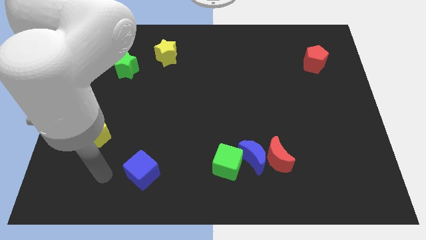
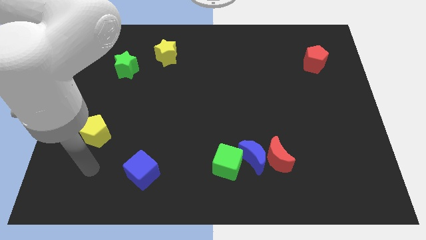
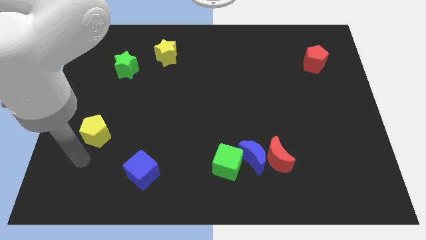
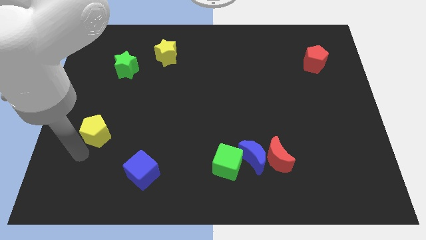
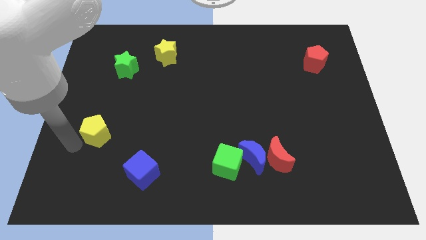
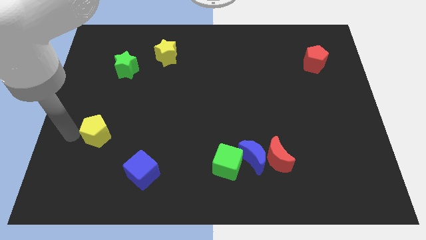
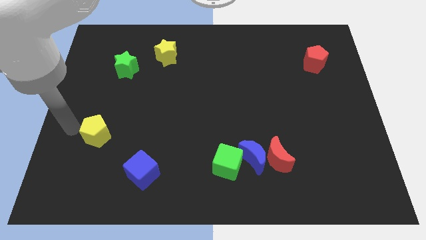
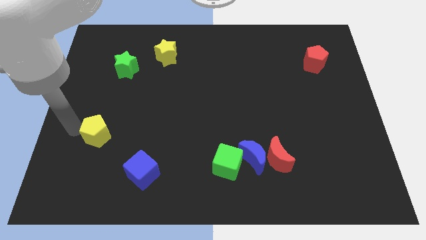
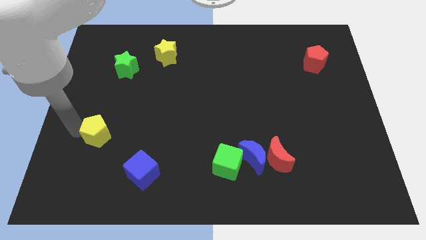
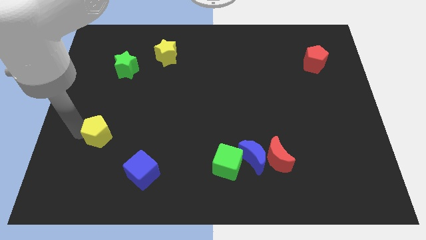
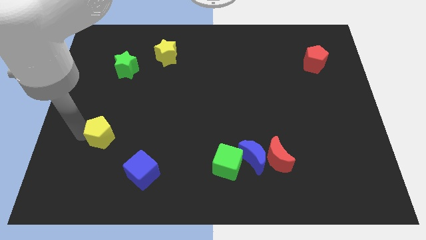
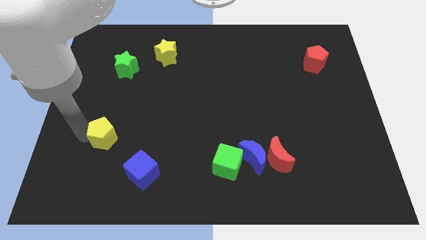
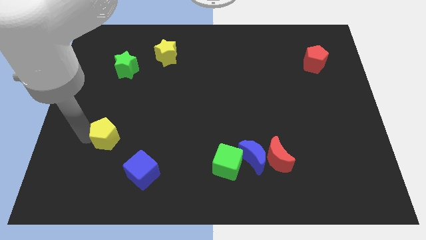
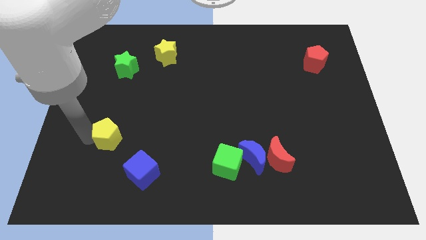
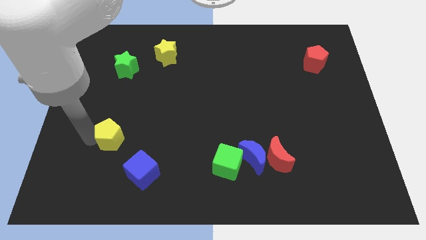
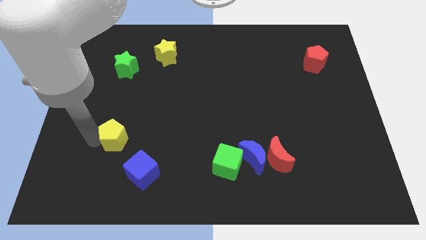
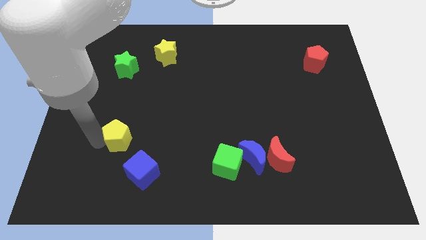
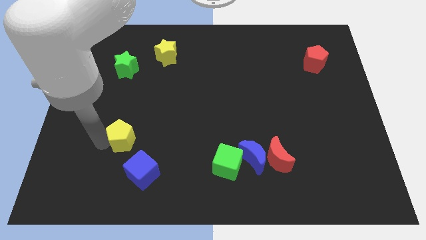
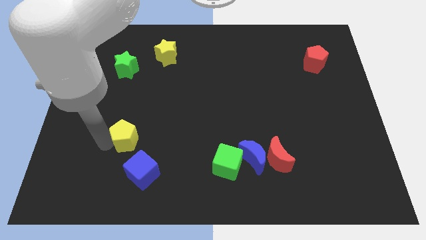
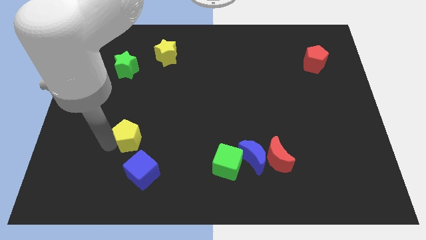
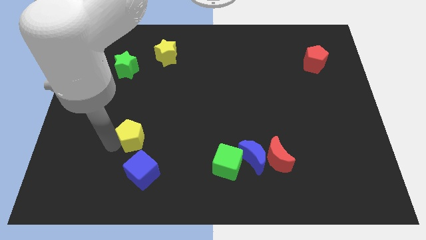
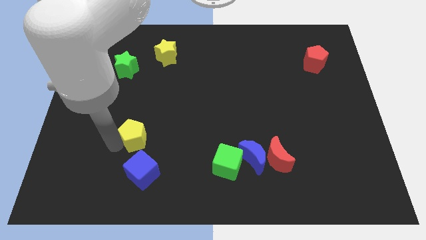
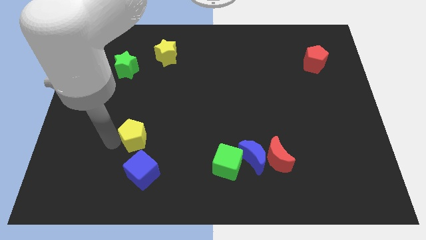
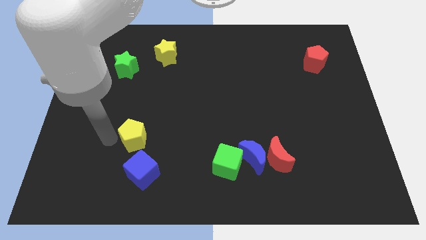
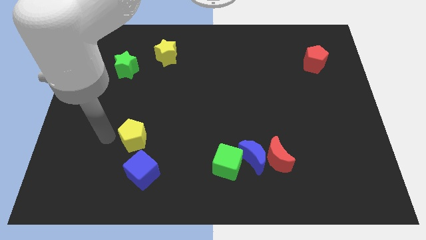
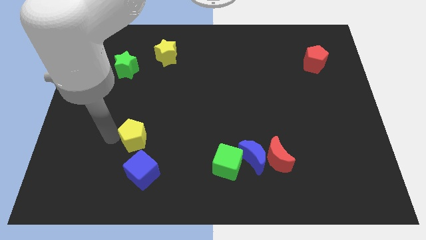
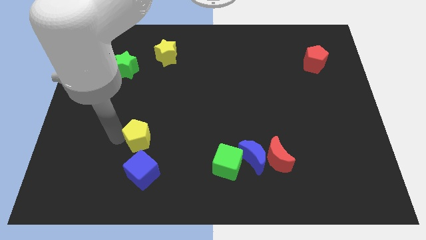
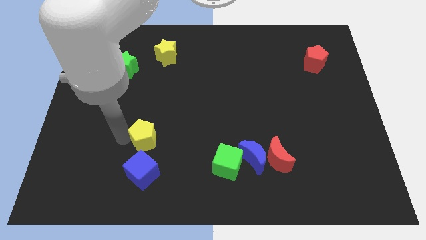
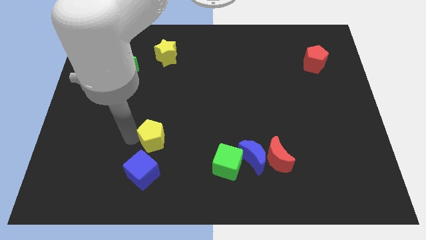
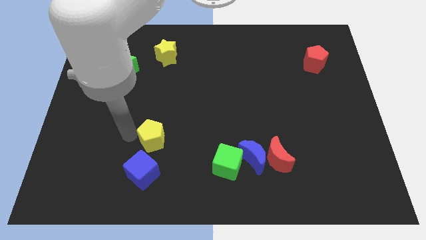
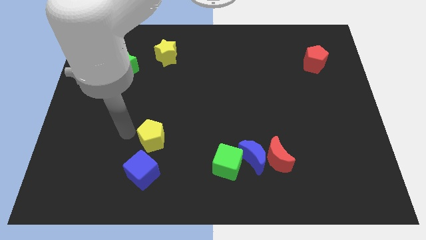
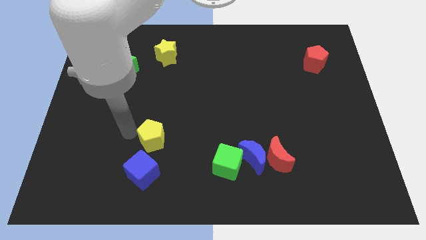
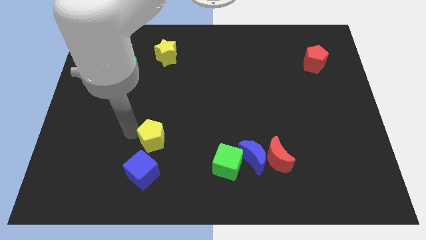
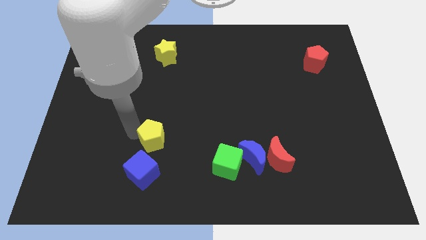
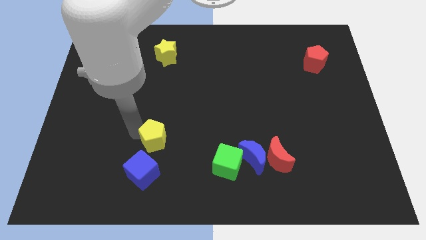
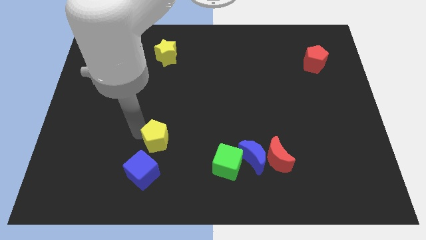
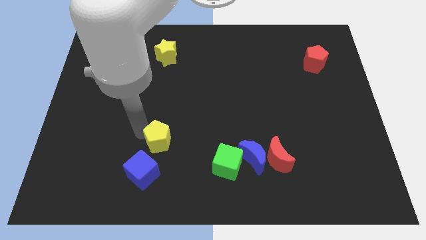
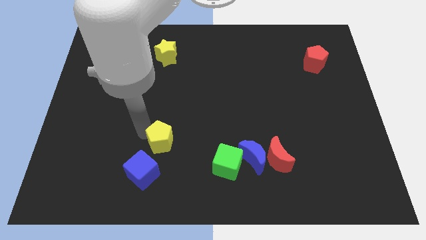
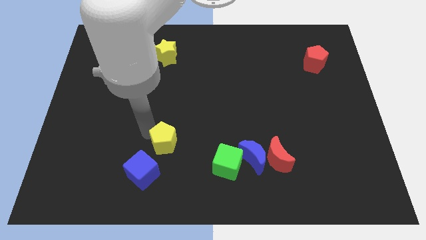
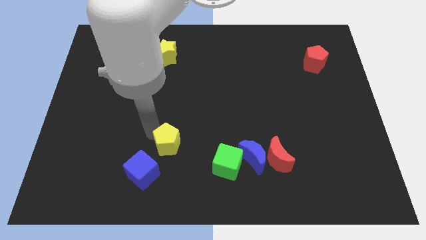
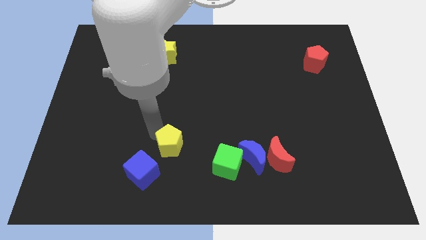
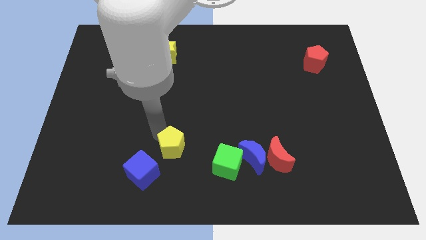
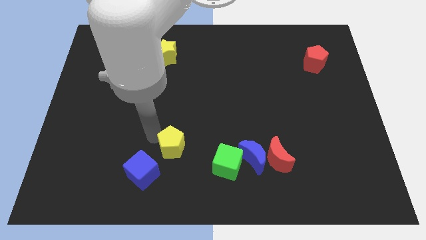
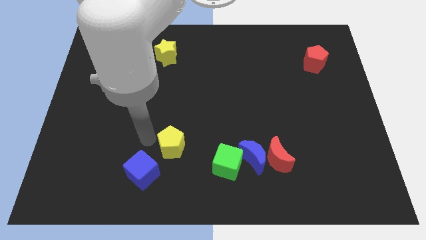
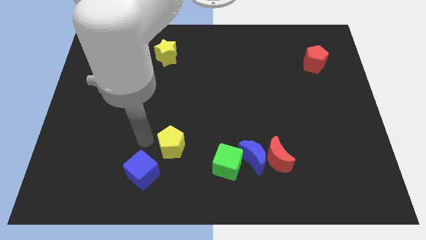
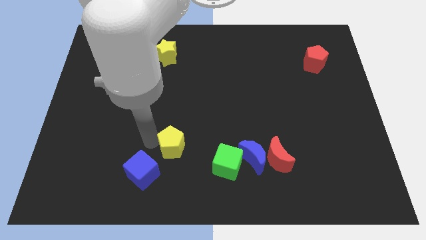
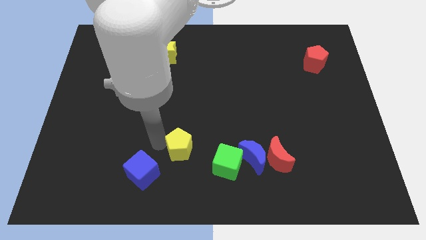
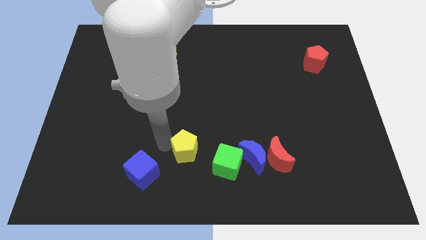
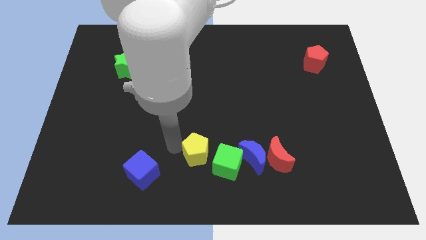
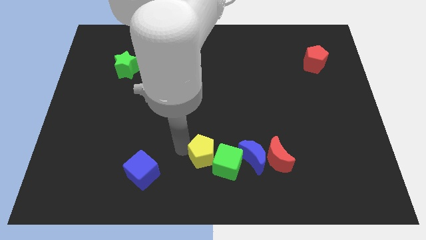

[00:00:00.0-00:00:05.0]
slide the yellow pentagon close to the green cube

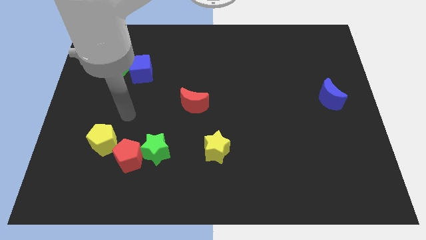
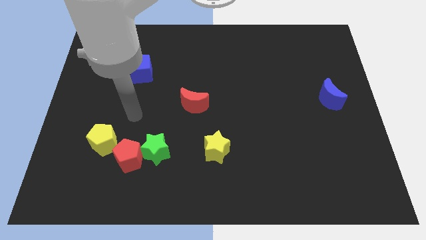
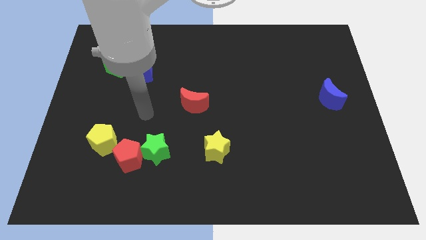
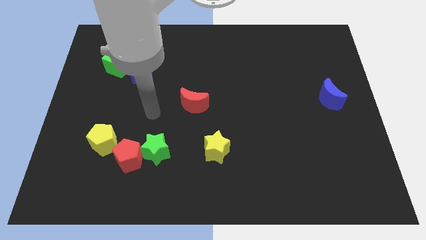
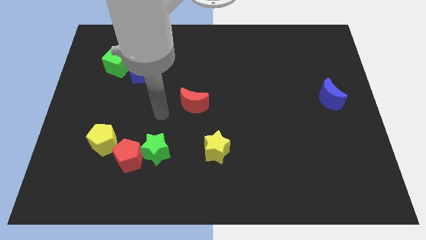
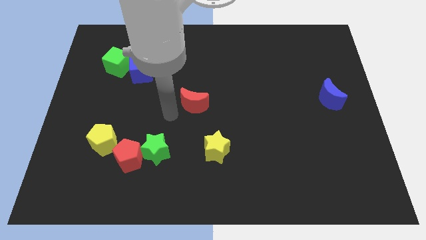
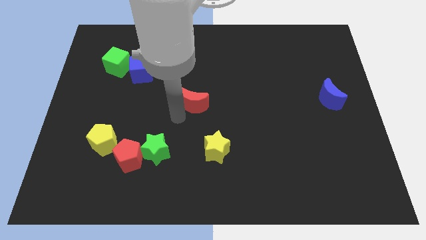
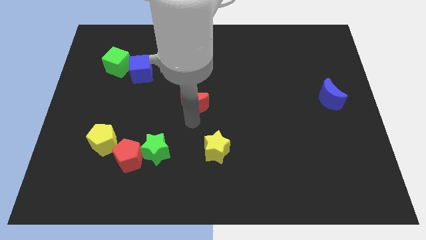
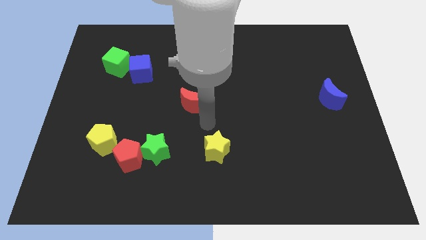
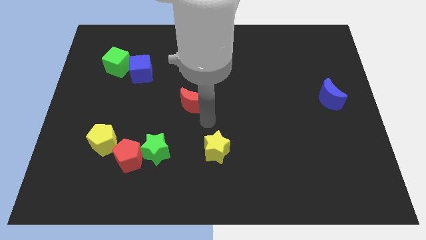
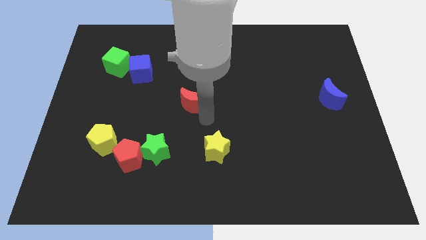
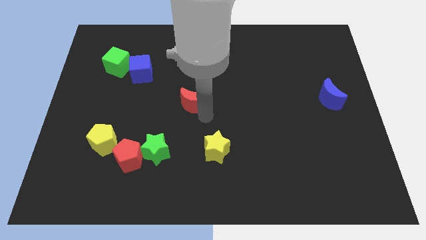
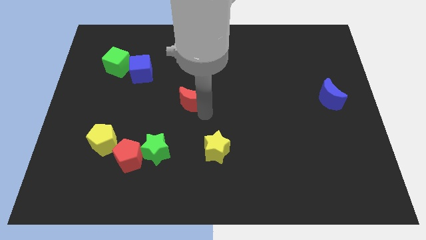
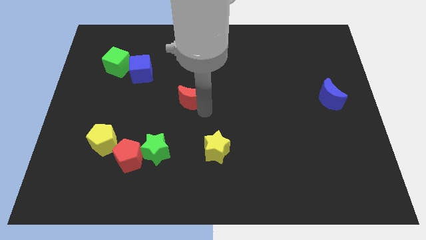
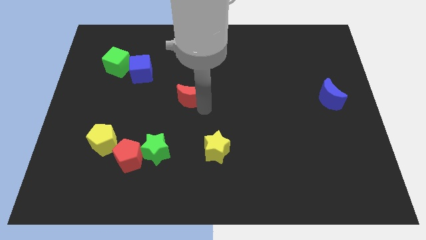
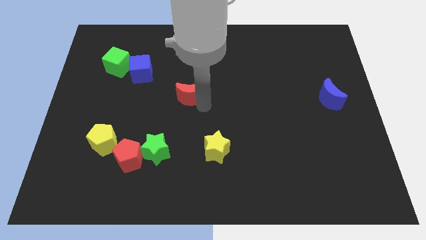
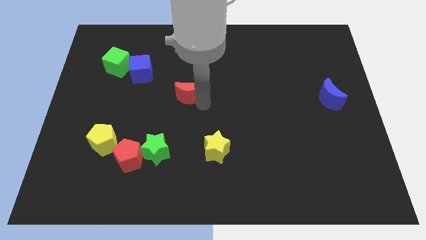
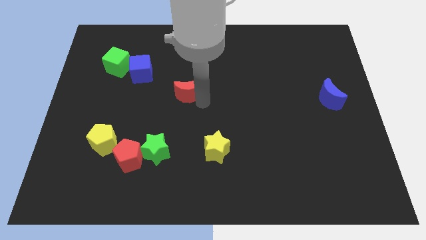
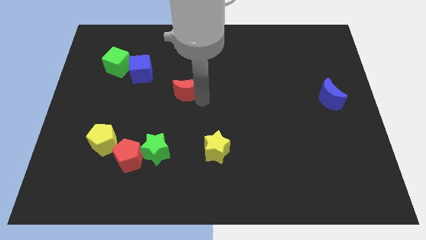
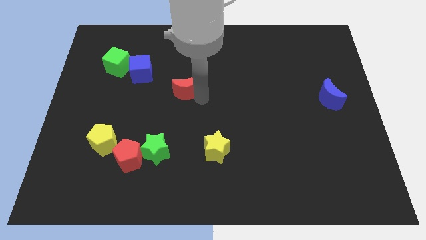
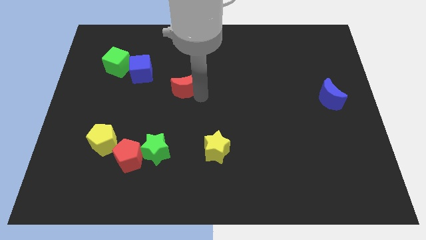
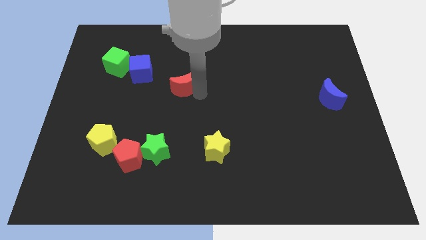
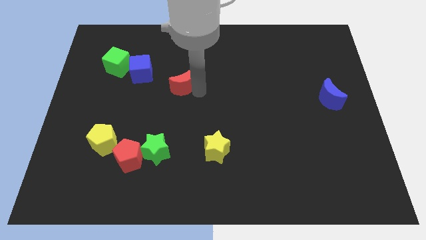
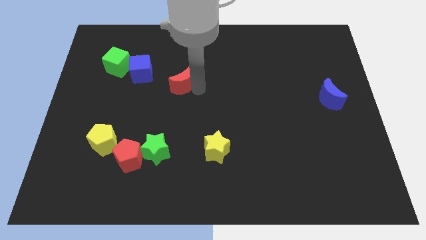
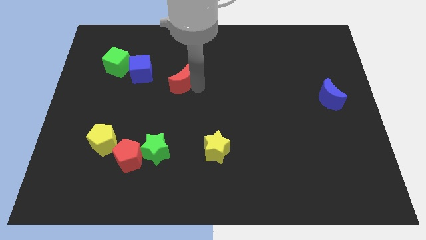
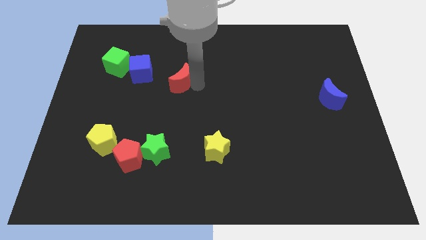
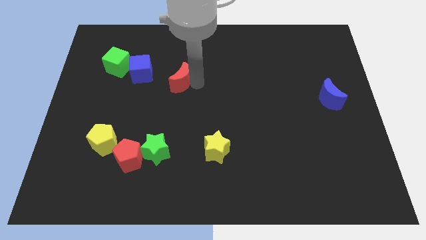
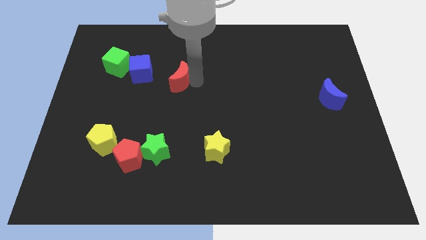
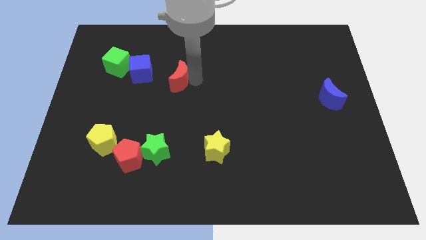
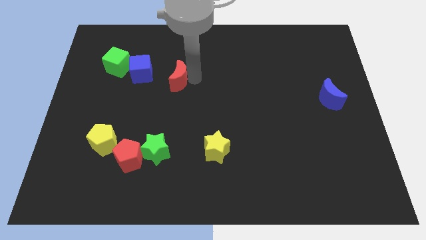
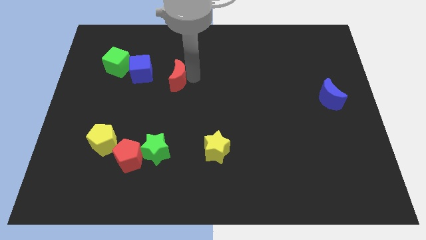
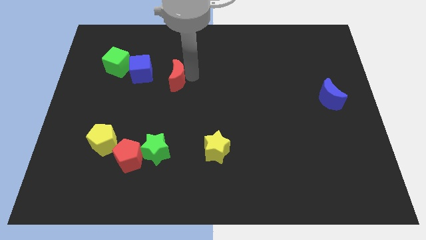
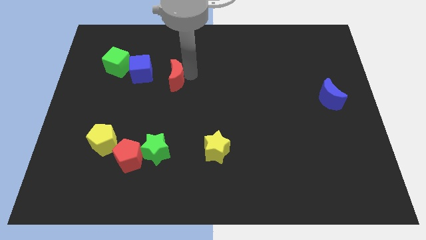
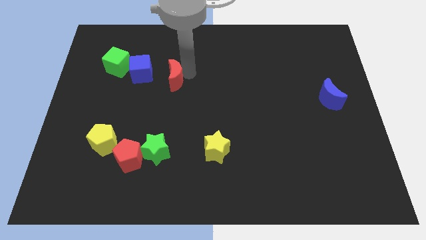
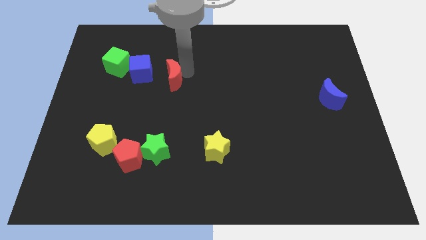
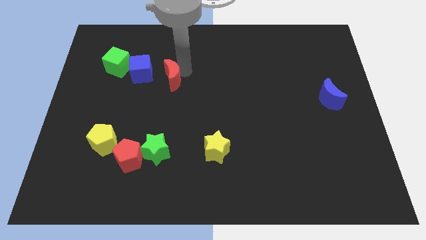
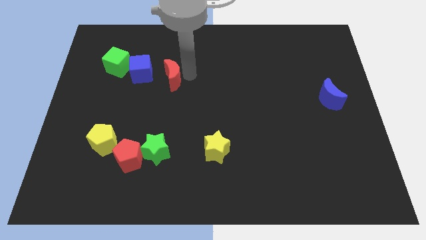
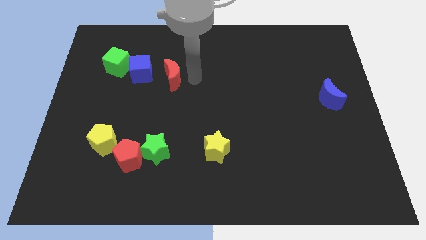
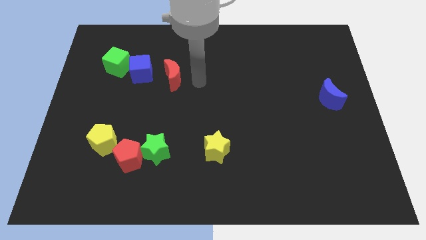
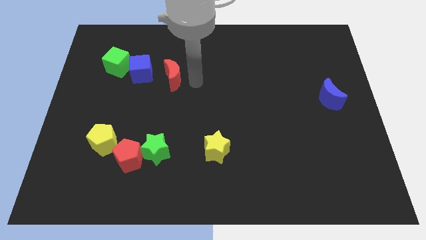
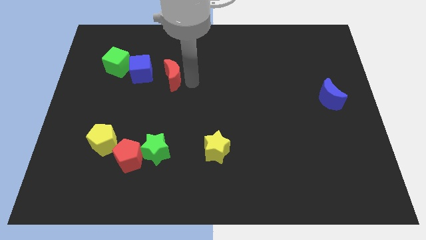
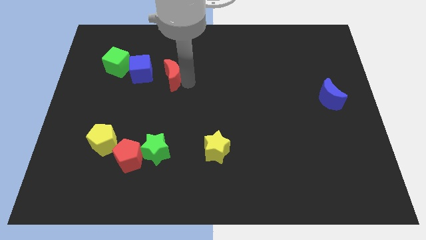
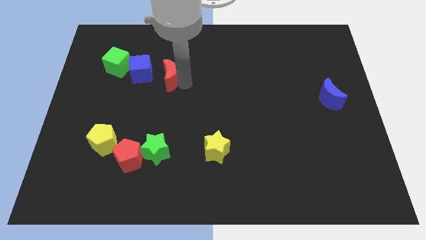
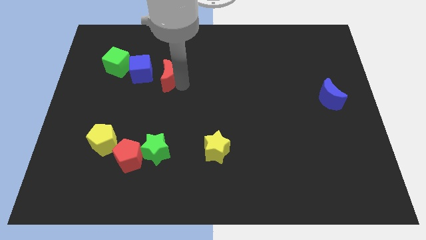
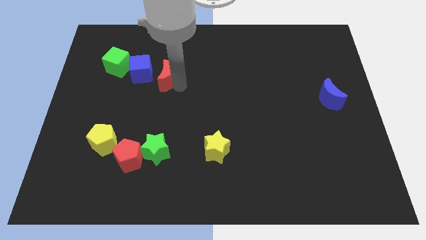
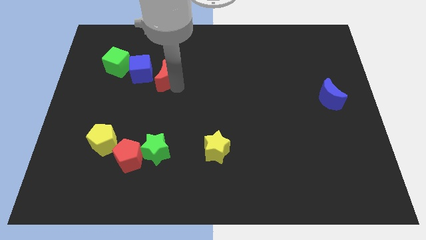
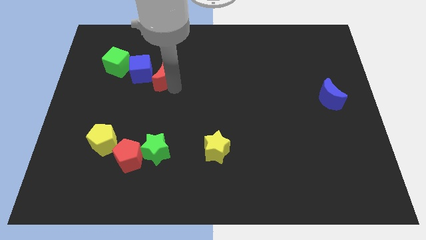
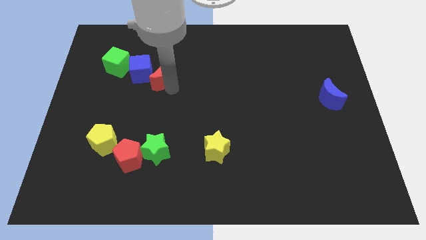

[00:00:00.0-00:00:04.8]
push the red moon to the blue cube
